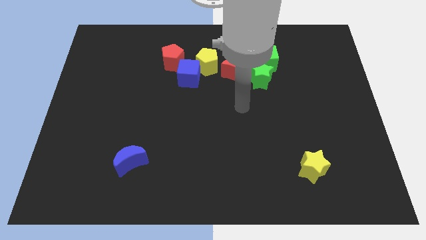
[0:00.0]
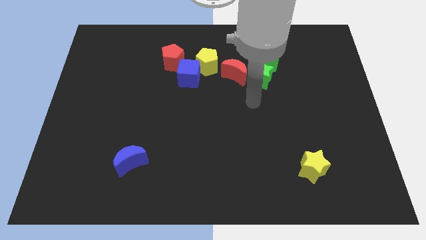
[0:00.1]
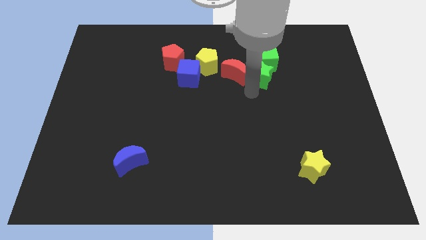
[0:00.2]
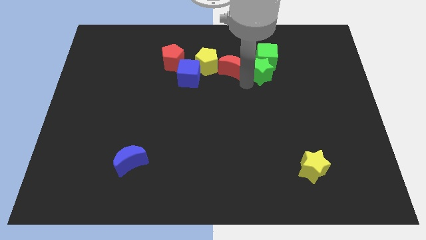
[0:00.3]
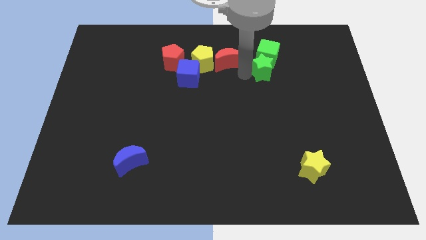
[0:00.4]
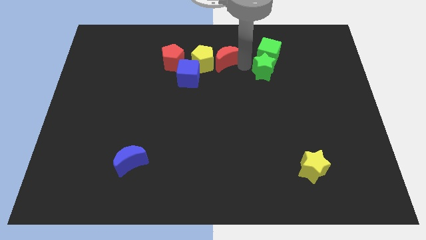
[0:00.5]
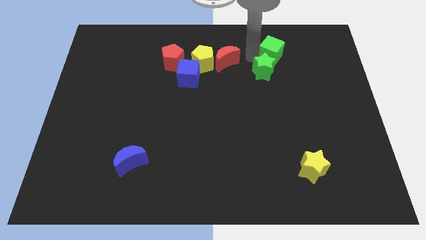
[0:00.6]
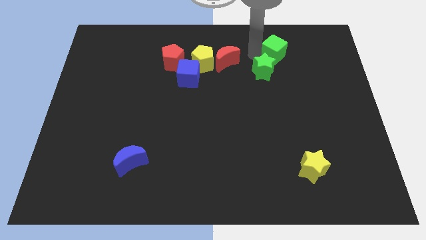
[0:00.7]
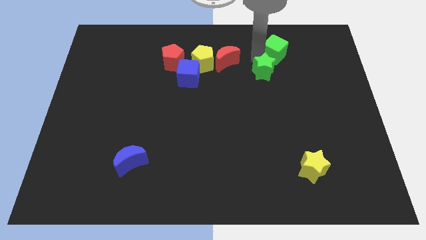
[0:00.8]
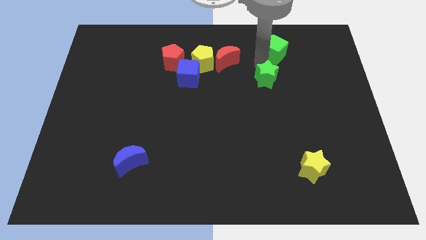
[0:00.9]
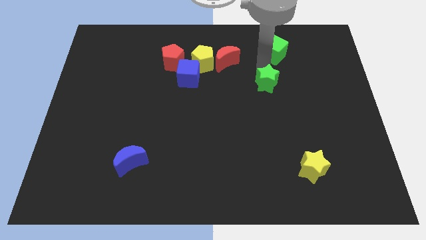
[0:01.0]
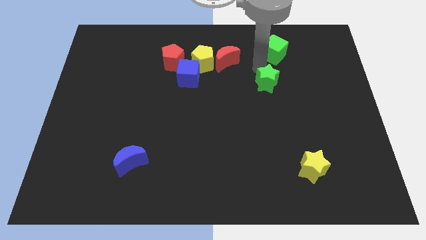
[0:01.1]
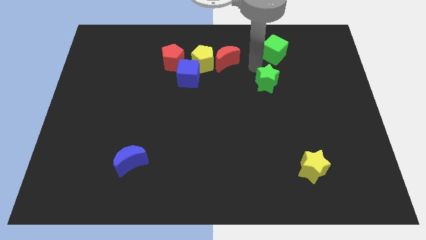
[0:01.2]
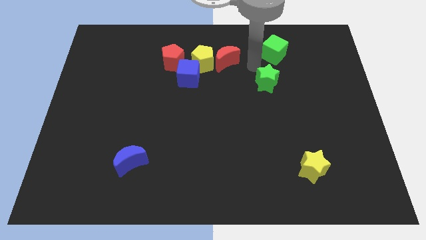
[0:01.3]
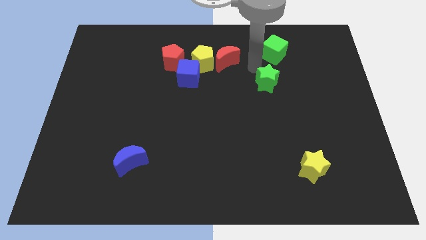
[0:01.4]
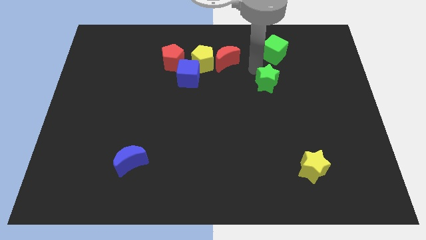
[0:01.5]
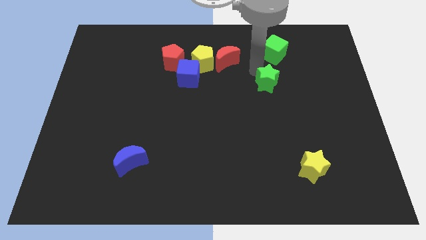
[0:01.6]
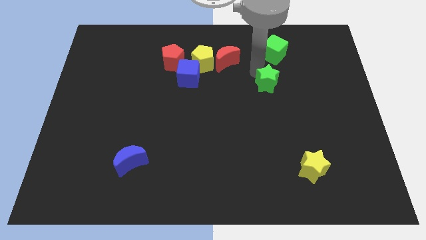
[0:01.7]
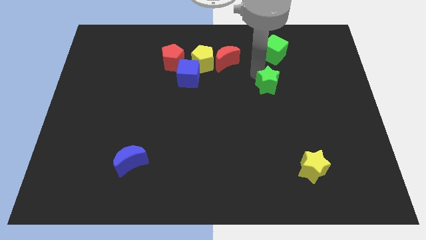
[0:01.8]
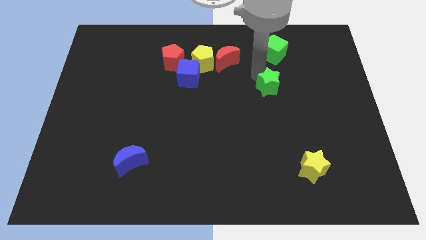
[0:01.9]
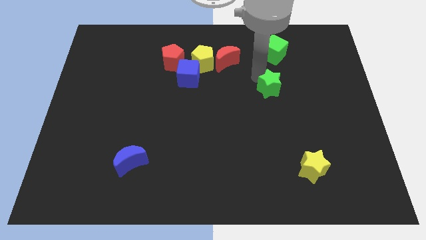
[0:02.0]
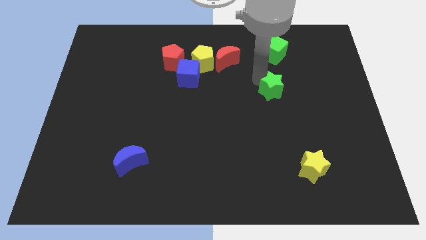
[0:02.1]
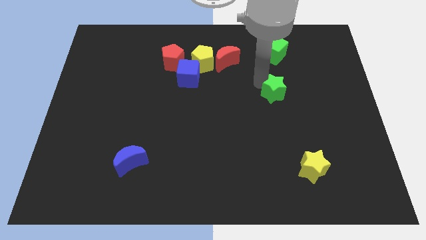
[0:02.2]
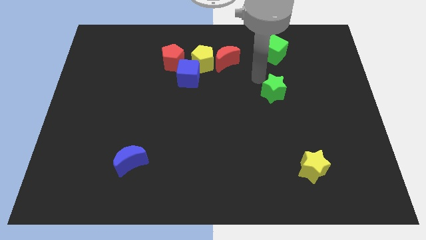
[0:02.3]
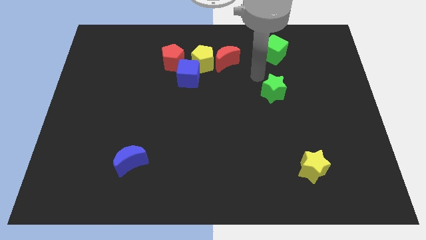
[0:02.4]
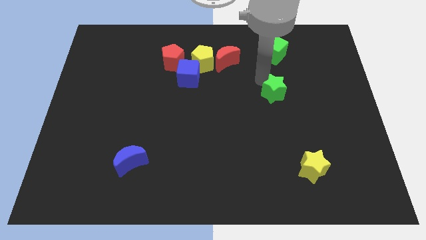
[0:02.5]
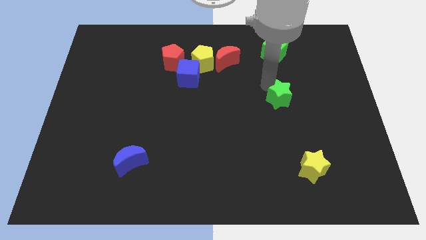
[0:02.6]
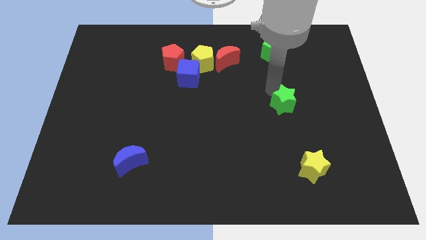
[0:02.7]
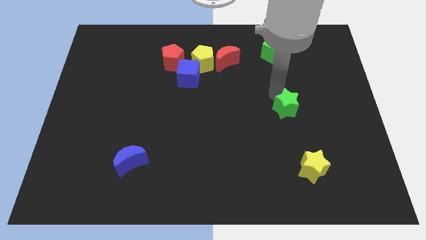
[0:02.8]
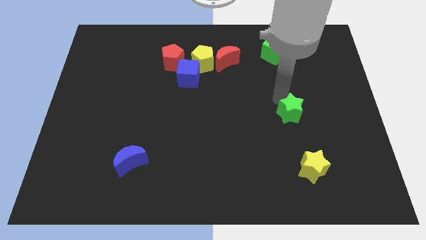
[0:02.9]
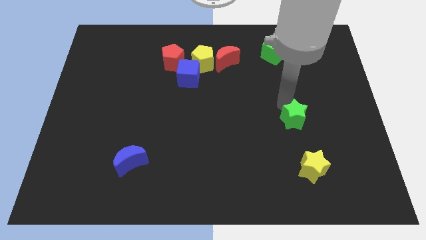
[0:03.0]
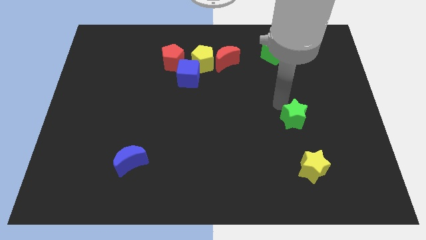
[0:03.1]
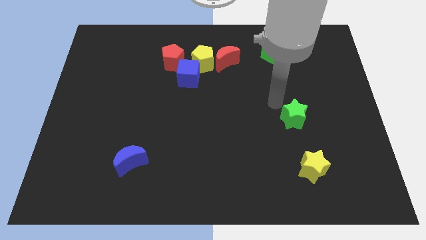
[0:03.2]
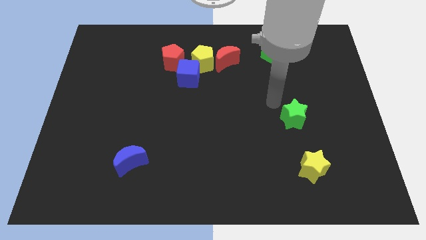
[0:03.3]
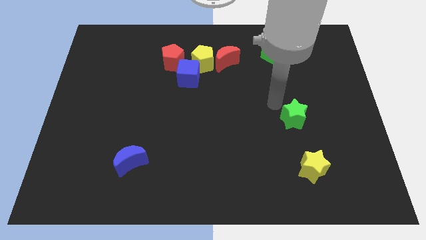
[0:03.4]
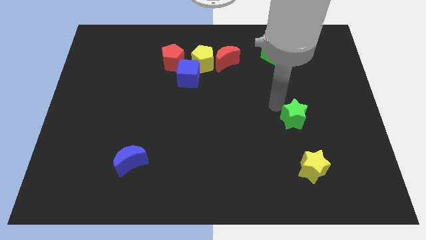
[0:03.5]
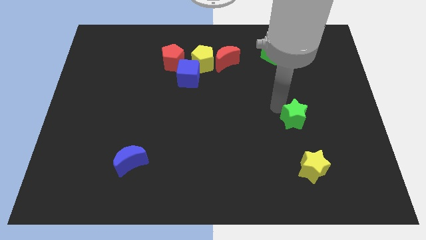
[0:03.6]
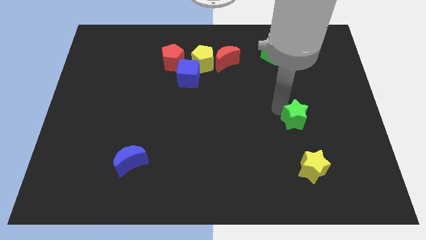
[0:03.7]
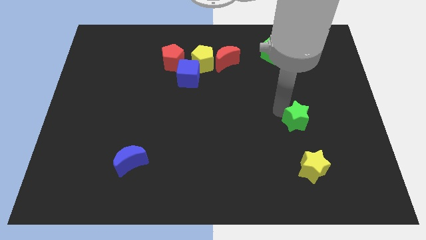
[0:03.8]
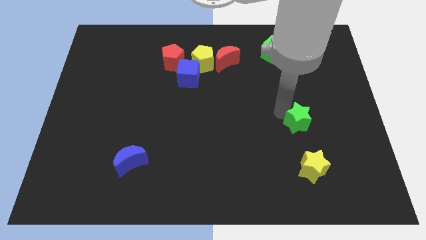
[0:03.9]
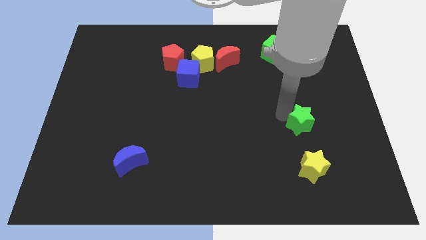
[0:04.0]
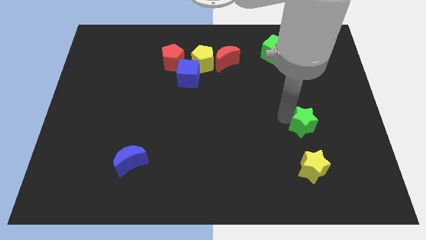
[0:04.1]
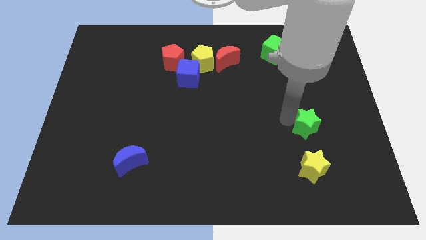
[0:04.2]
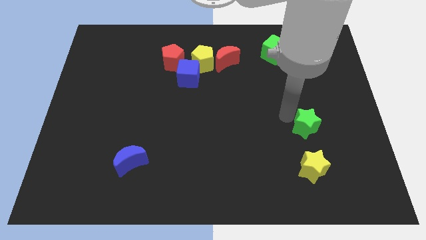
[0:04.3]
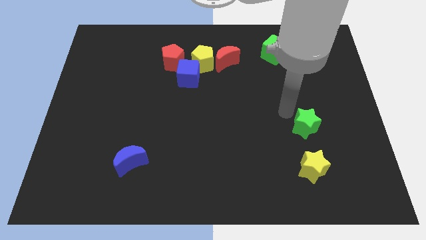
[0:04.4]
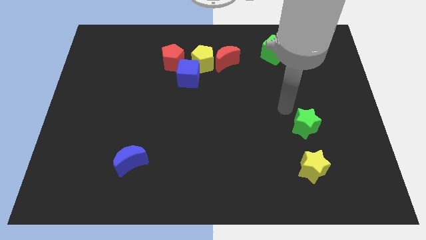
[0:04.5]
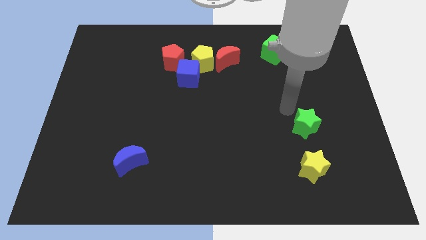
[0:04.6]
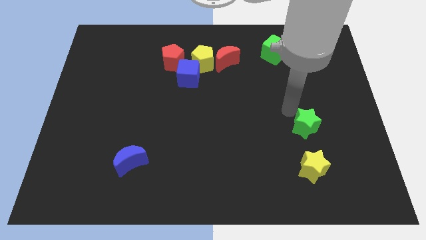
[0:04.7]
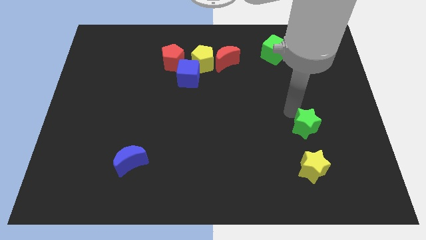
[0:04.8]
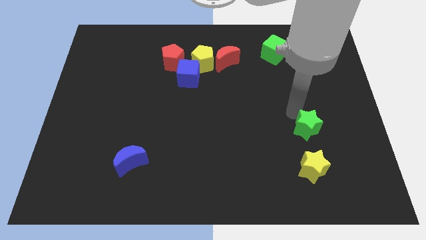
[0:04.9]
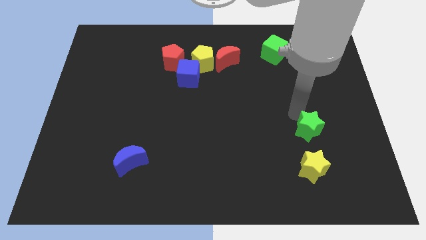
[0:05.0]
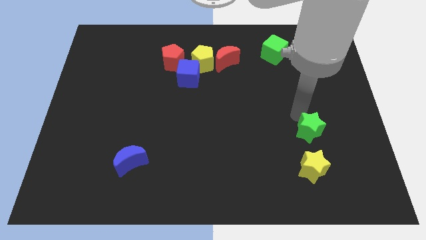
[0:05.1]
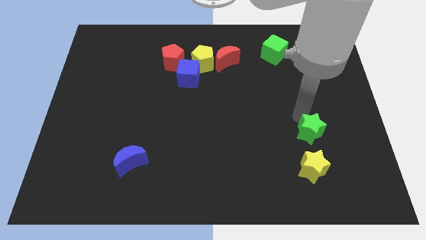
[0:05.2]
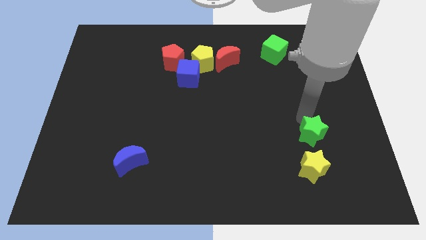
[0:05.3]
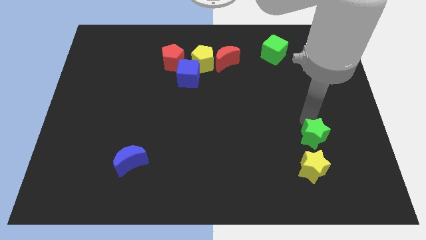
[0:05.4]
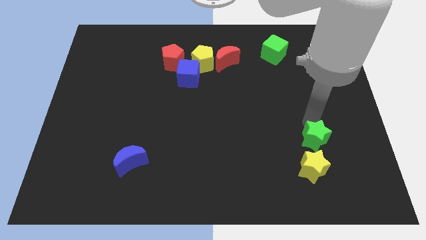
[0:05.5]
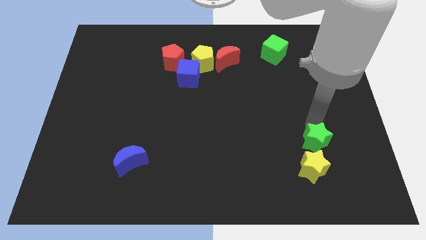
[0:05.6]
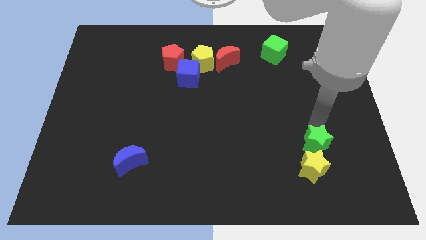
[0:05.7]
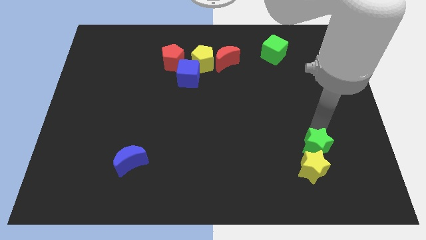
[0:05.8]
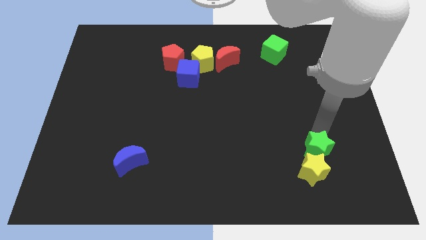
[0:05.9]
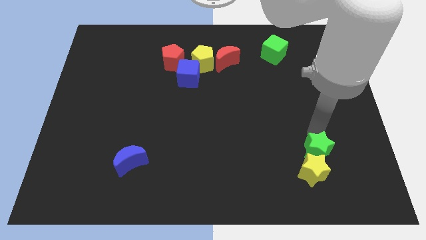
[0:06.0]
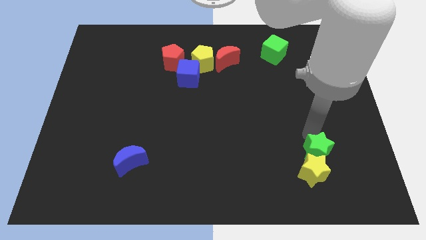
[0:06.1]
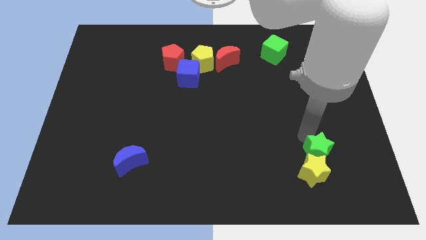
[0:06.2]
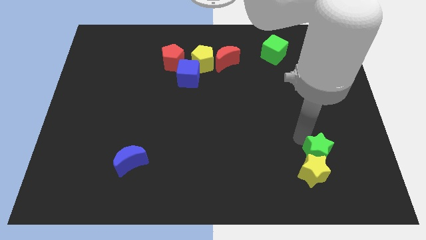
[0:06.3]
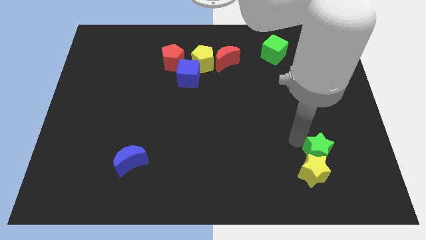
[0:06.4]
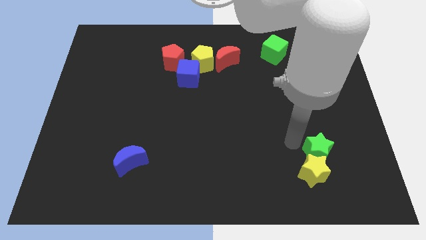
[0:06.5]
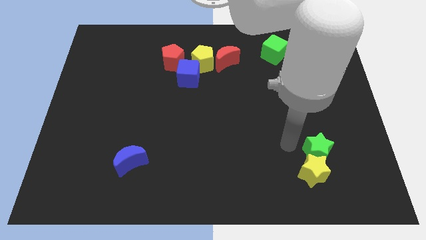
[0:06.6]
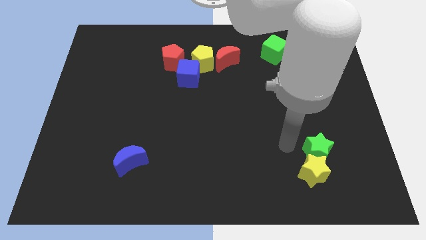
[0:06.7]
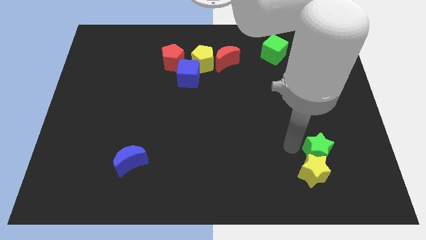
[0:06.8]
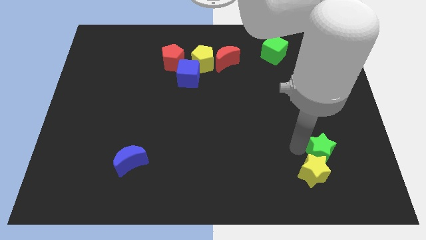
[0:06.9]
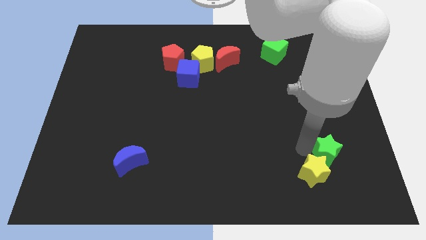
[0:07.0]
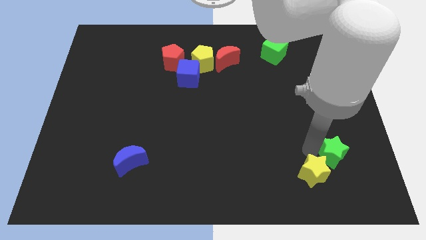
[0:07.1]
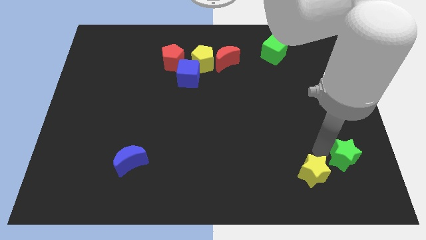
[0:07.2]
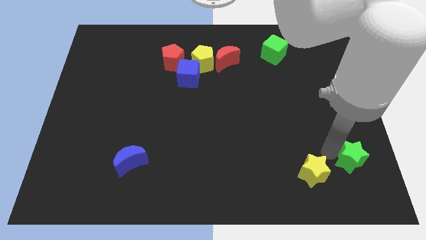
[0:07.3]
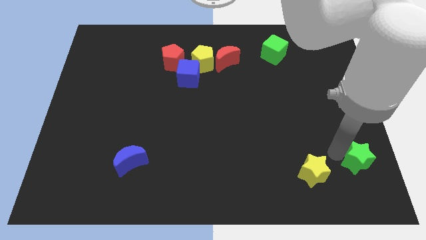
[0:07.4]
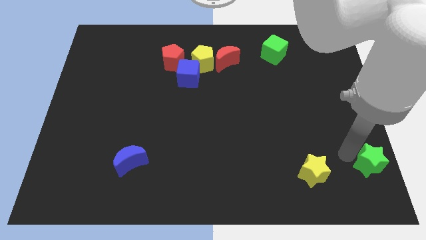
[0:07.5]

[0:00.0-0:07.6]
move the green star to the bottom right corner

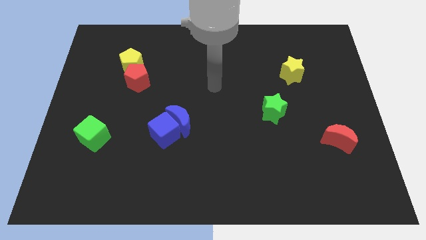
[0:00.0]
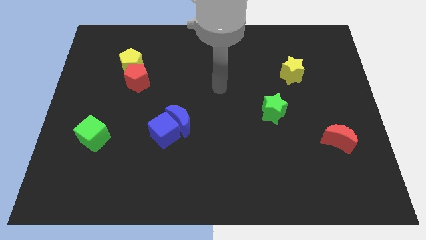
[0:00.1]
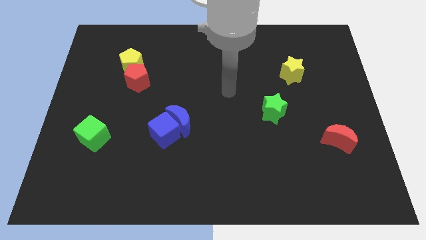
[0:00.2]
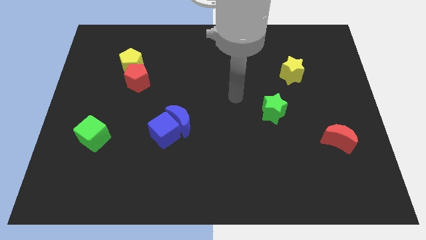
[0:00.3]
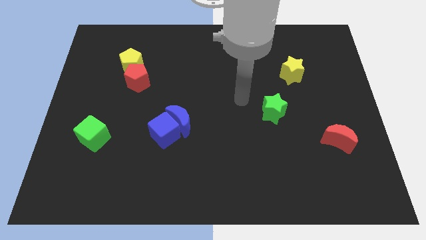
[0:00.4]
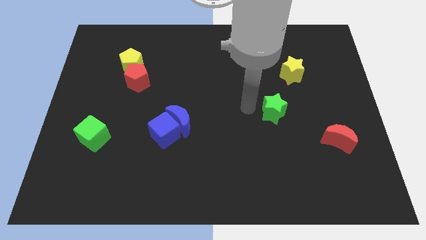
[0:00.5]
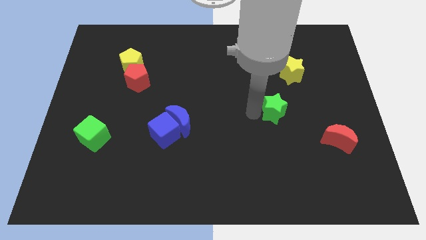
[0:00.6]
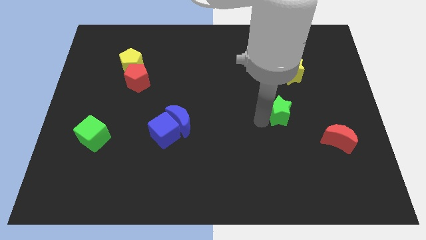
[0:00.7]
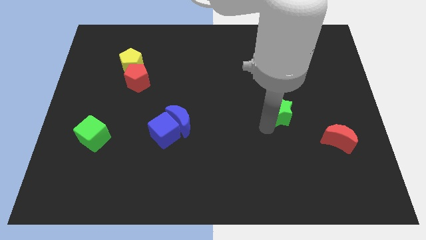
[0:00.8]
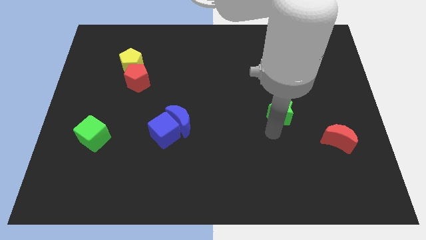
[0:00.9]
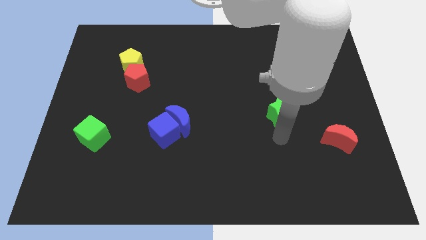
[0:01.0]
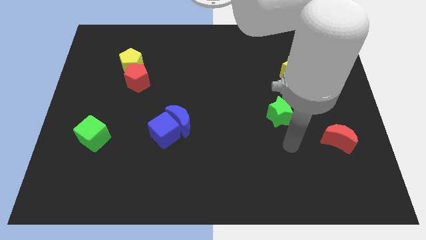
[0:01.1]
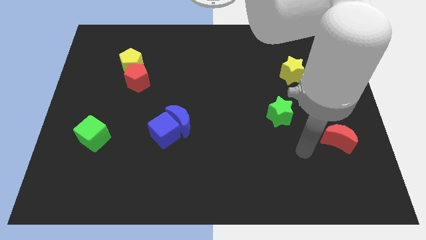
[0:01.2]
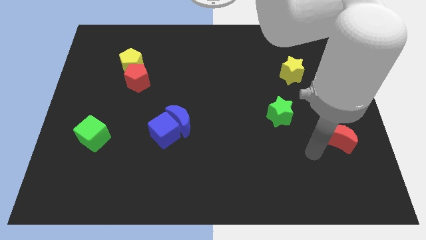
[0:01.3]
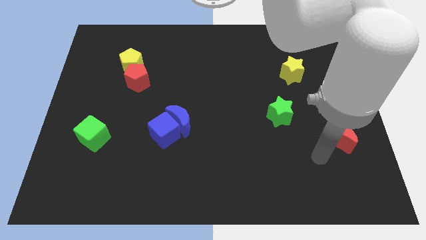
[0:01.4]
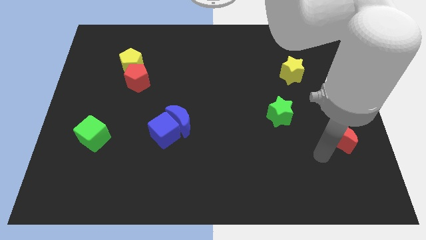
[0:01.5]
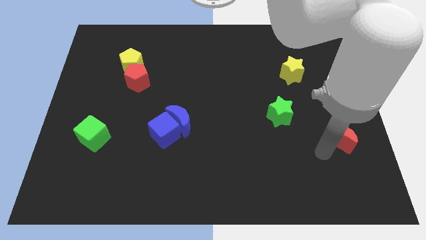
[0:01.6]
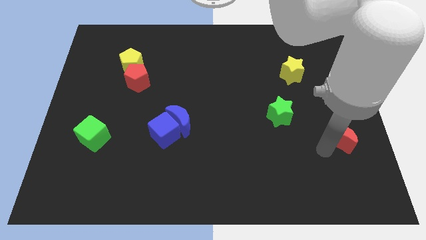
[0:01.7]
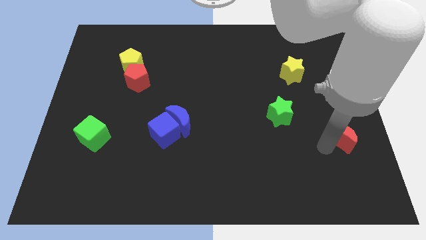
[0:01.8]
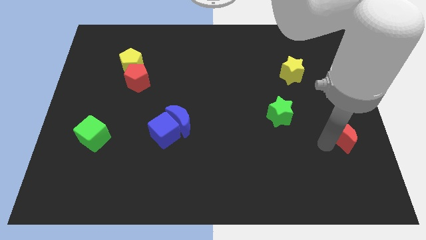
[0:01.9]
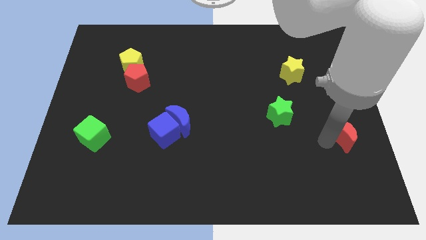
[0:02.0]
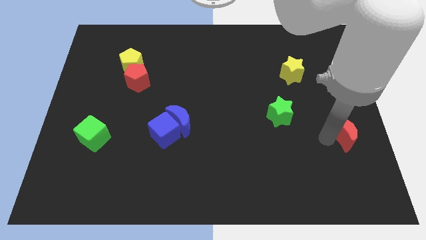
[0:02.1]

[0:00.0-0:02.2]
push the red moon to the center right
